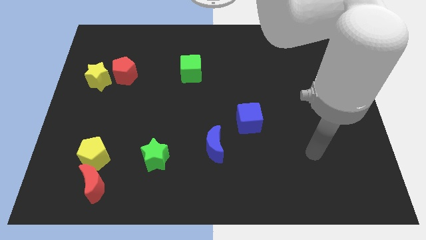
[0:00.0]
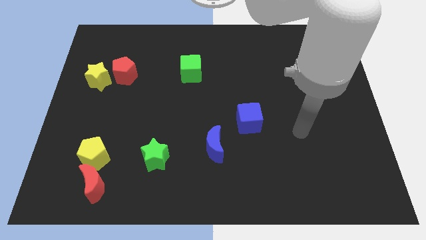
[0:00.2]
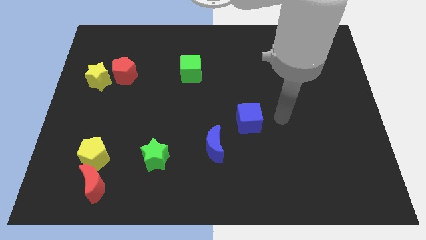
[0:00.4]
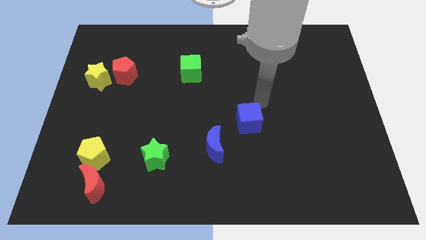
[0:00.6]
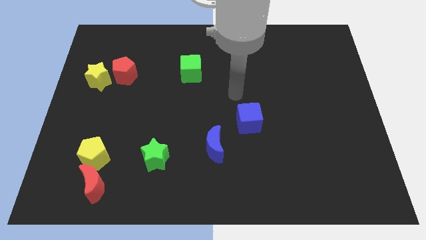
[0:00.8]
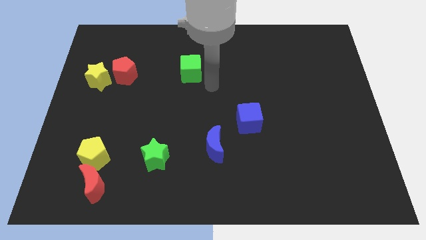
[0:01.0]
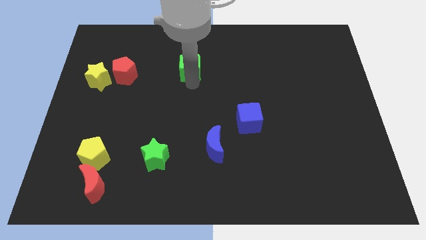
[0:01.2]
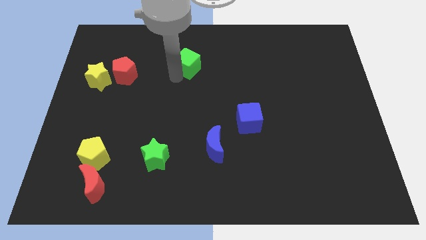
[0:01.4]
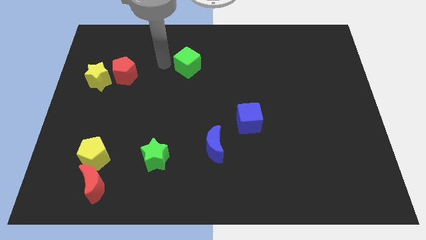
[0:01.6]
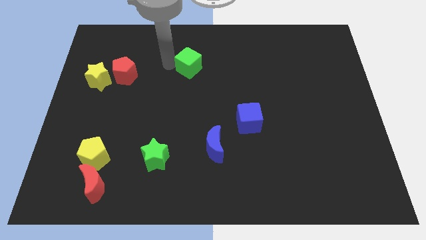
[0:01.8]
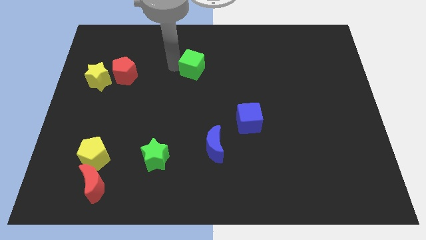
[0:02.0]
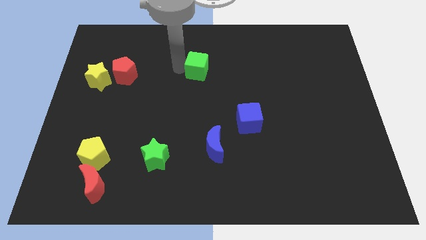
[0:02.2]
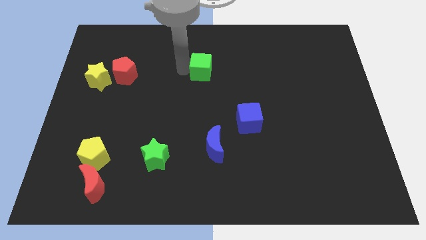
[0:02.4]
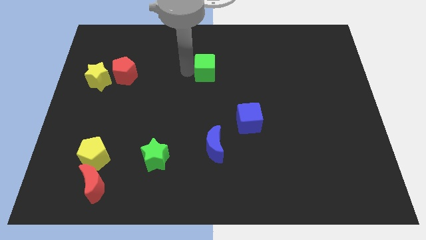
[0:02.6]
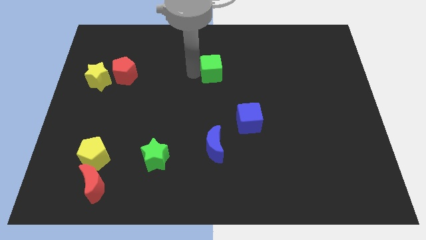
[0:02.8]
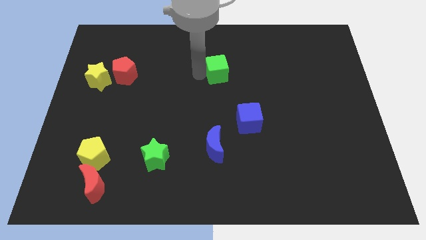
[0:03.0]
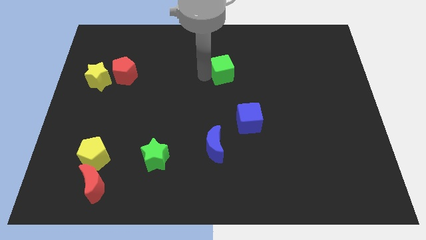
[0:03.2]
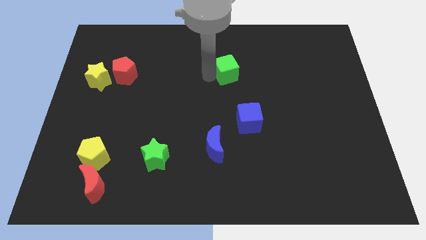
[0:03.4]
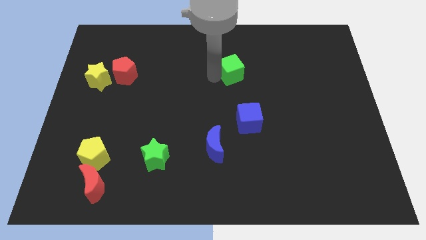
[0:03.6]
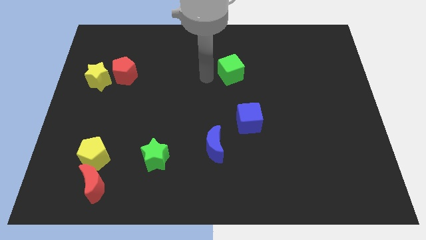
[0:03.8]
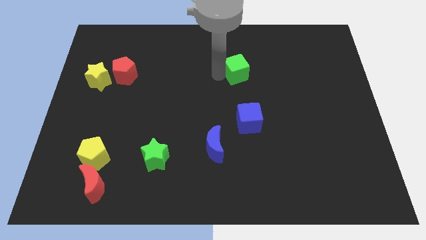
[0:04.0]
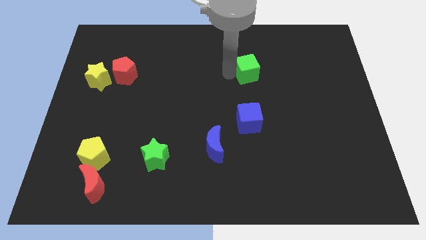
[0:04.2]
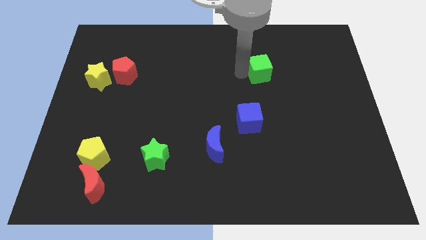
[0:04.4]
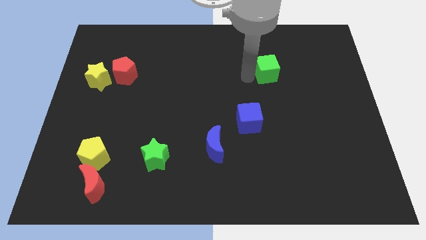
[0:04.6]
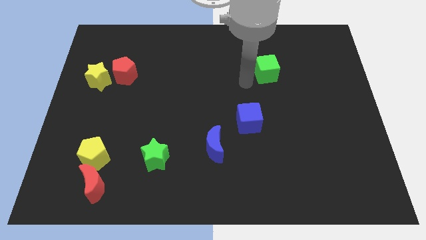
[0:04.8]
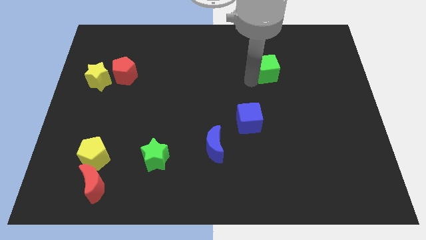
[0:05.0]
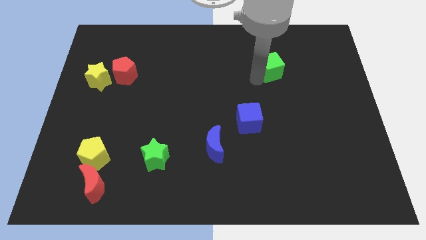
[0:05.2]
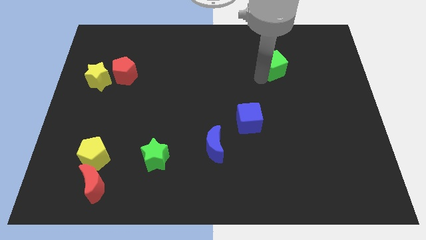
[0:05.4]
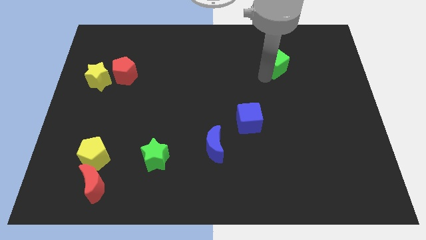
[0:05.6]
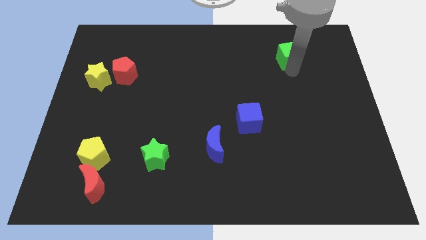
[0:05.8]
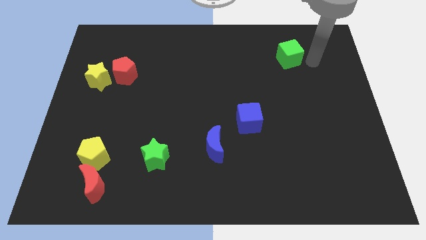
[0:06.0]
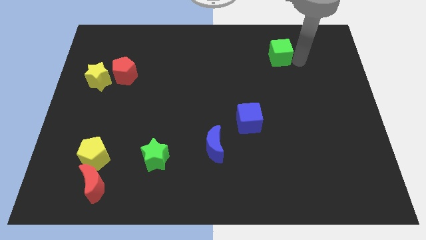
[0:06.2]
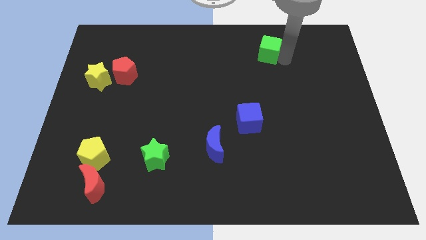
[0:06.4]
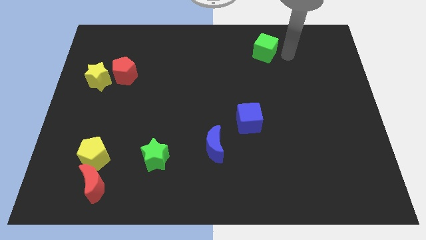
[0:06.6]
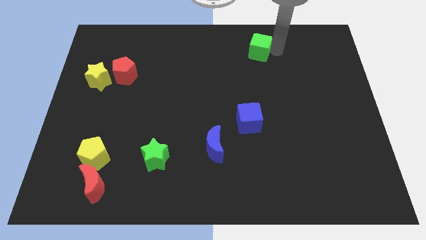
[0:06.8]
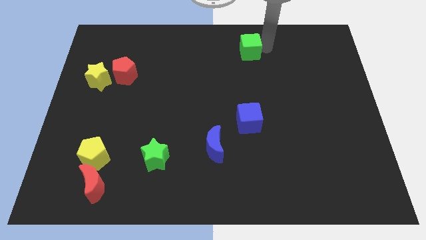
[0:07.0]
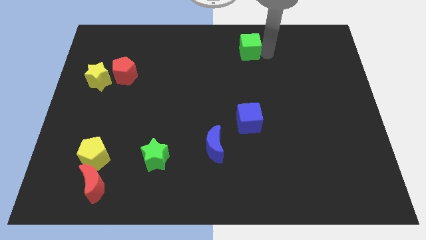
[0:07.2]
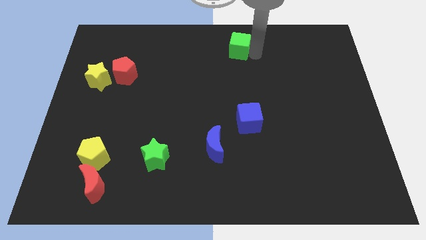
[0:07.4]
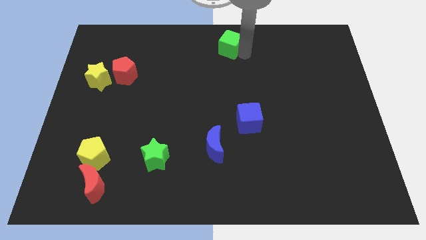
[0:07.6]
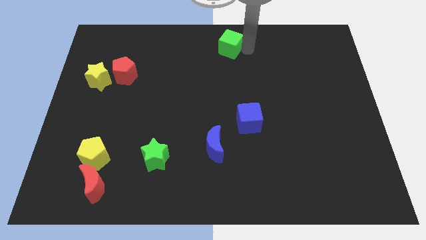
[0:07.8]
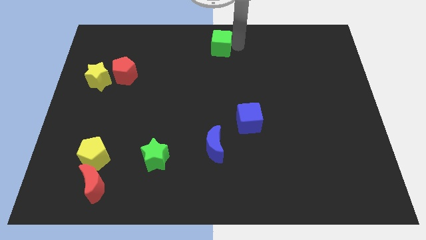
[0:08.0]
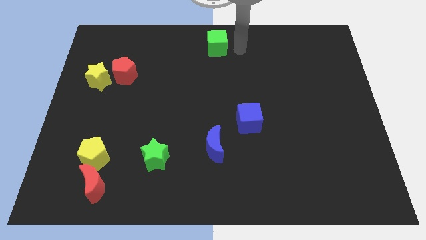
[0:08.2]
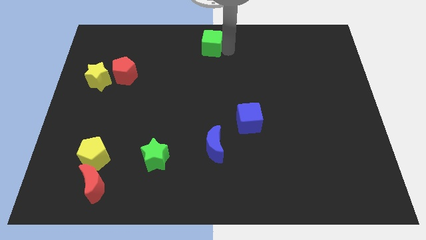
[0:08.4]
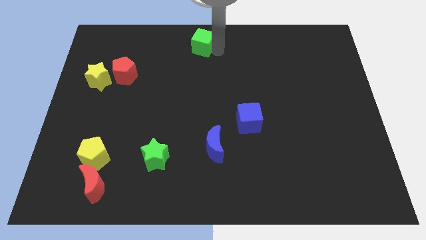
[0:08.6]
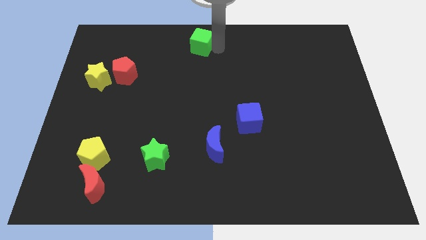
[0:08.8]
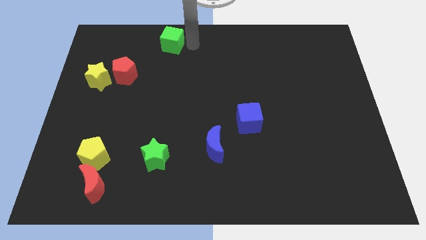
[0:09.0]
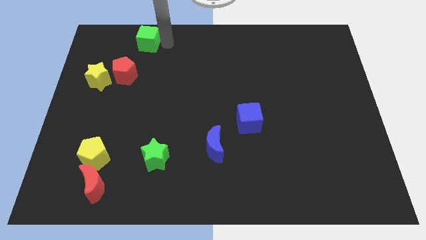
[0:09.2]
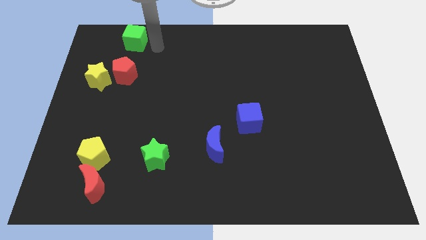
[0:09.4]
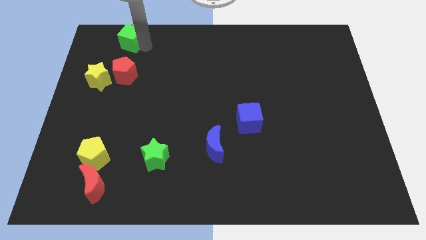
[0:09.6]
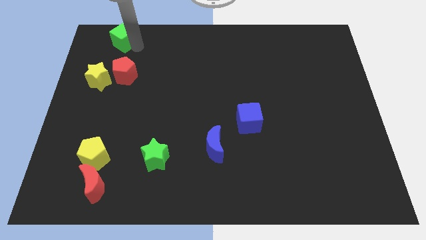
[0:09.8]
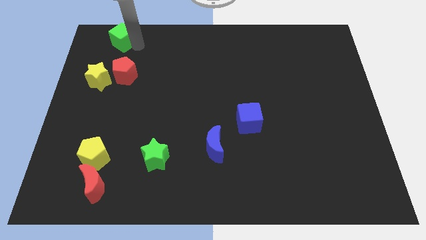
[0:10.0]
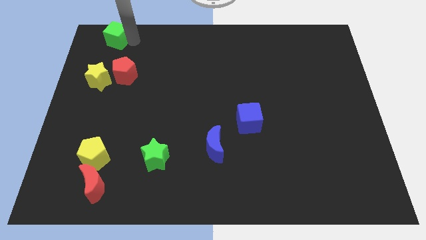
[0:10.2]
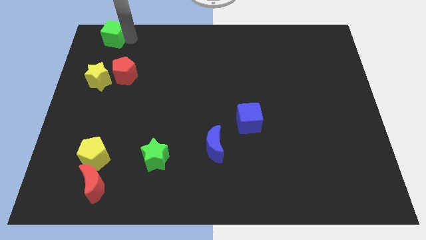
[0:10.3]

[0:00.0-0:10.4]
put the green cube to the top left corner

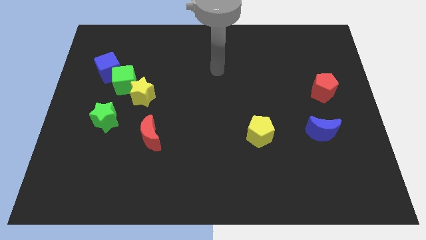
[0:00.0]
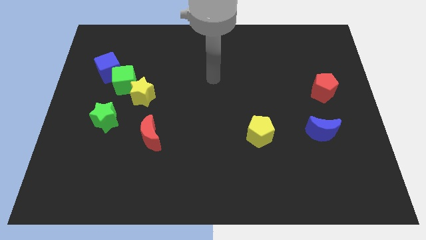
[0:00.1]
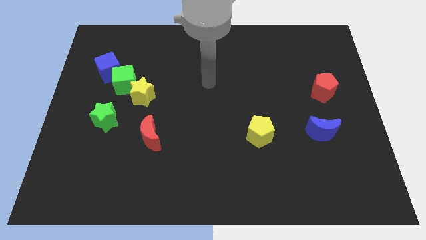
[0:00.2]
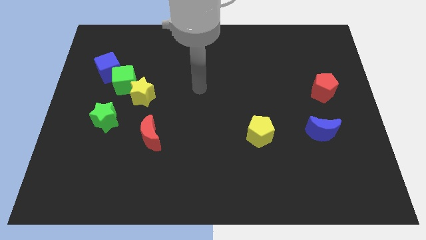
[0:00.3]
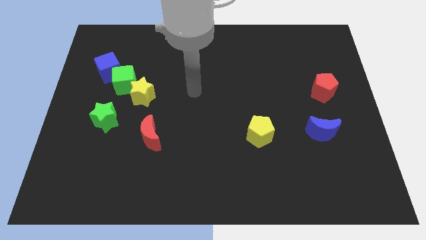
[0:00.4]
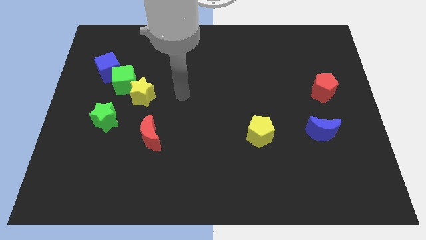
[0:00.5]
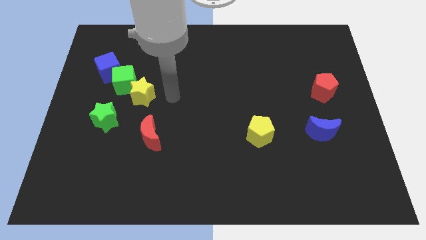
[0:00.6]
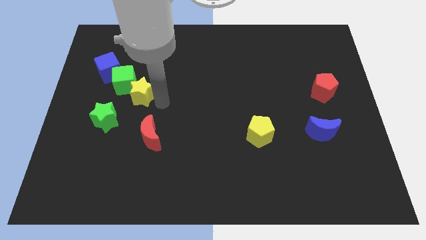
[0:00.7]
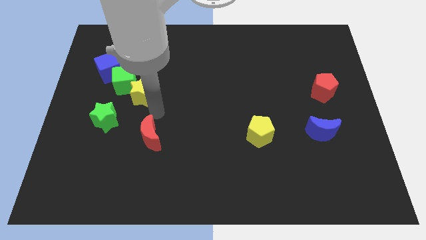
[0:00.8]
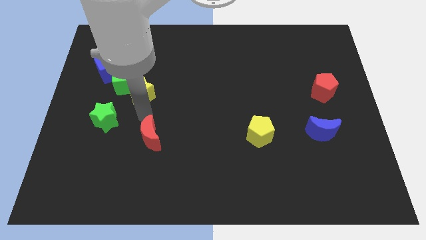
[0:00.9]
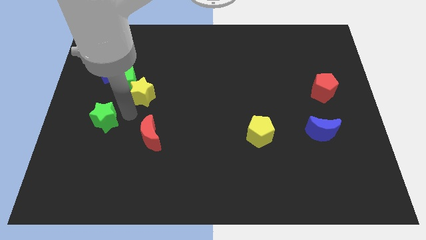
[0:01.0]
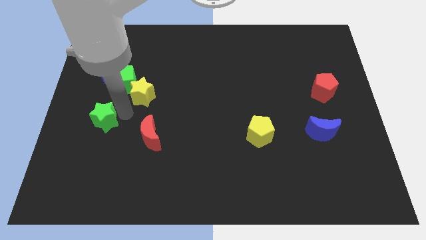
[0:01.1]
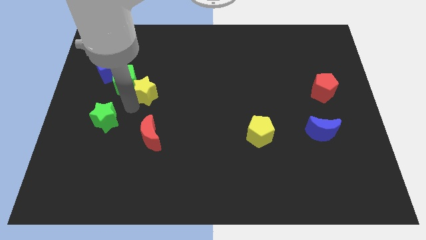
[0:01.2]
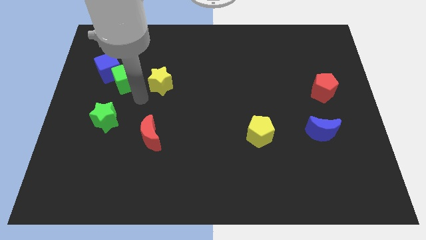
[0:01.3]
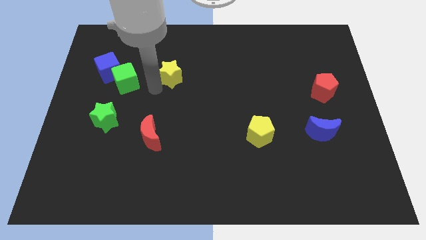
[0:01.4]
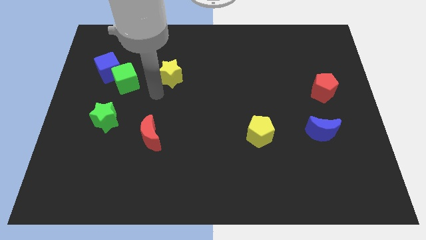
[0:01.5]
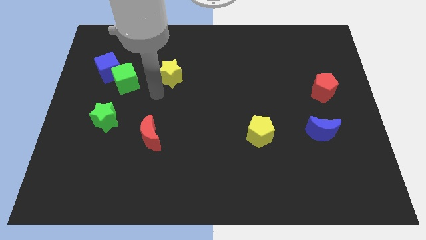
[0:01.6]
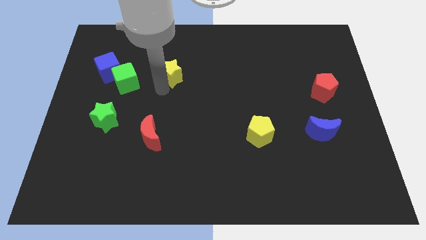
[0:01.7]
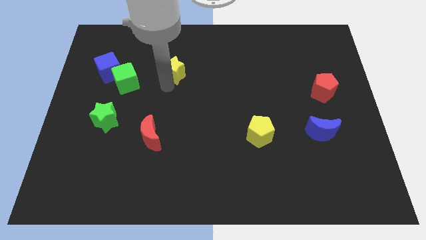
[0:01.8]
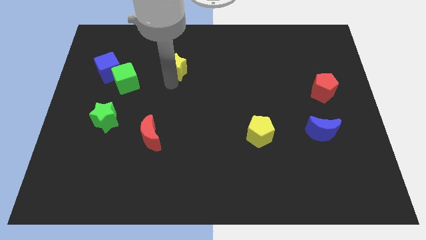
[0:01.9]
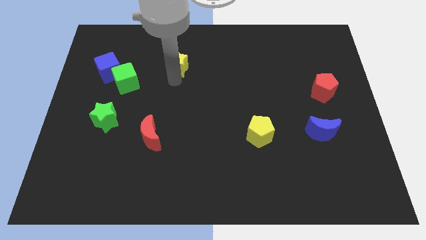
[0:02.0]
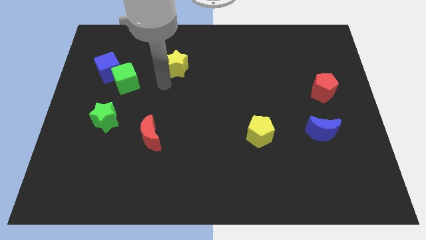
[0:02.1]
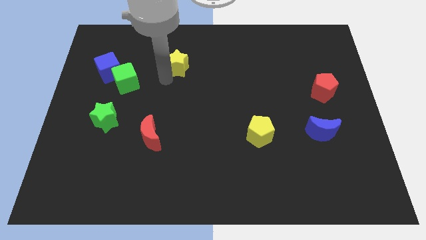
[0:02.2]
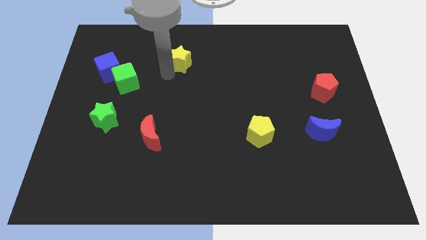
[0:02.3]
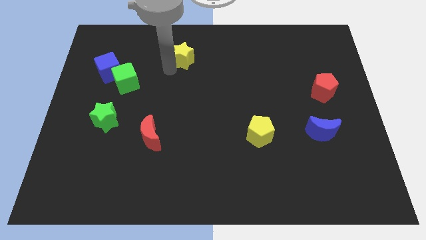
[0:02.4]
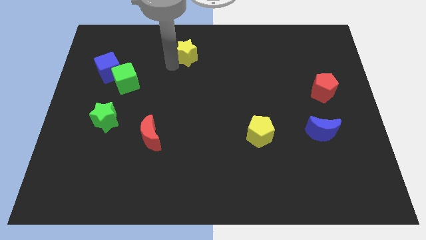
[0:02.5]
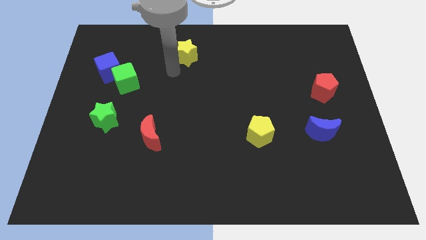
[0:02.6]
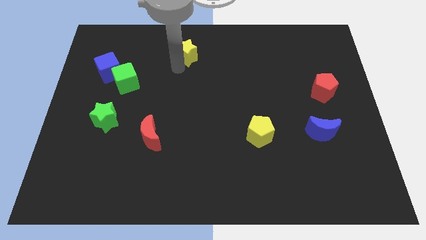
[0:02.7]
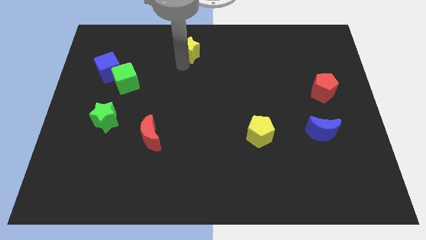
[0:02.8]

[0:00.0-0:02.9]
push the yellow star to the top side
